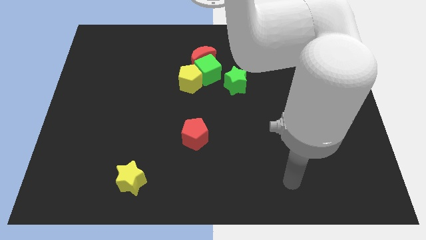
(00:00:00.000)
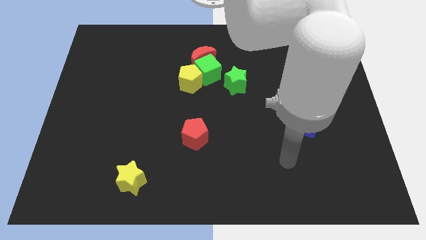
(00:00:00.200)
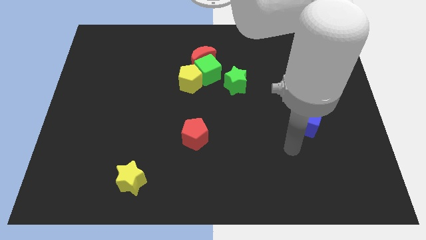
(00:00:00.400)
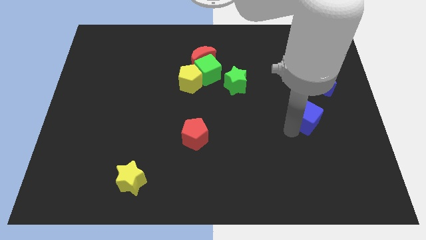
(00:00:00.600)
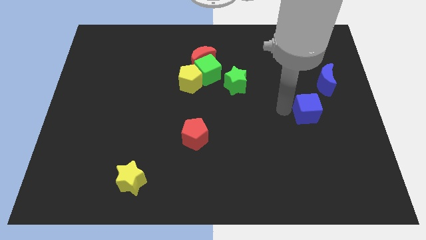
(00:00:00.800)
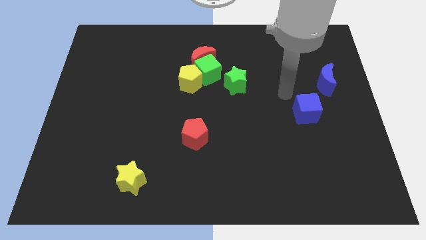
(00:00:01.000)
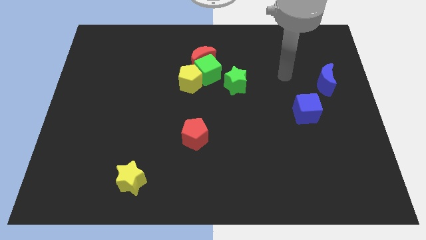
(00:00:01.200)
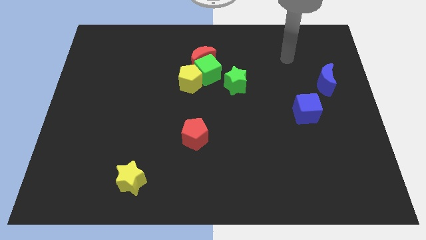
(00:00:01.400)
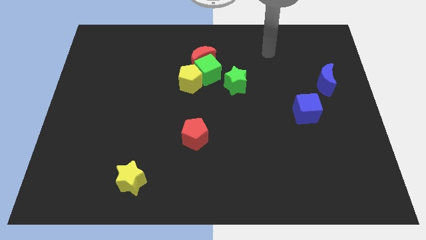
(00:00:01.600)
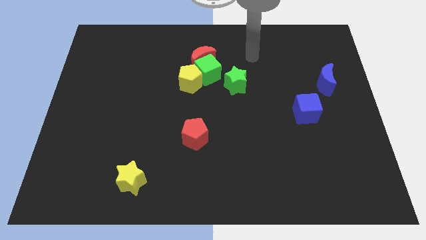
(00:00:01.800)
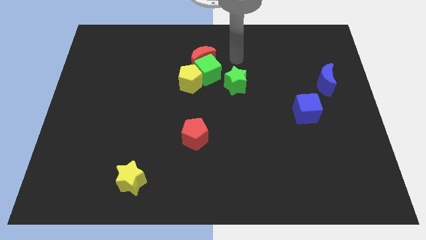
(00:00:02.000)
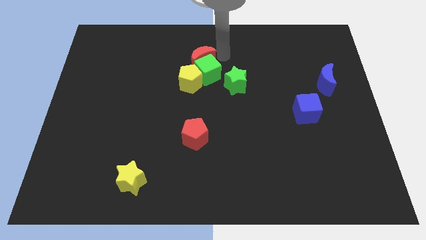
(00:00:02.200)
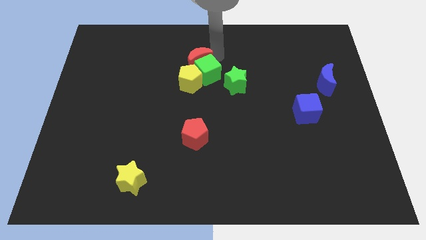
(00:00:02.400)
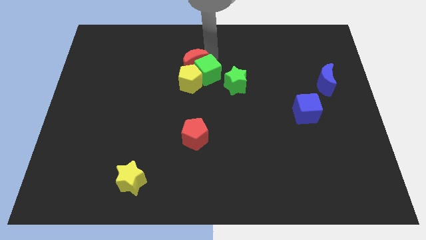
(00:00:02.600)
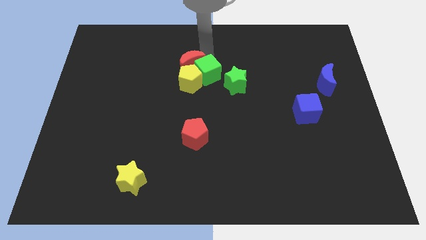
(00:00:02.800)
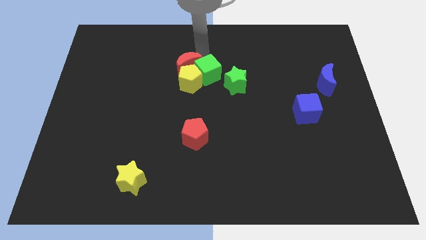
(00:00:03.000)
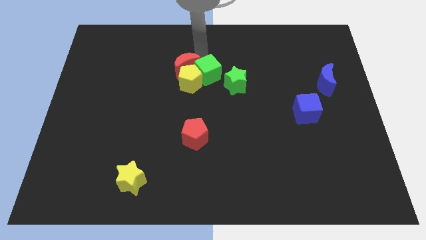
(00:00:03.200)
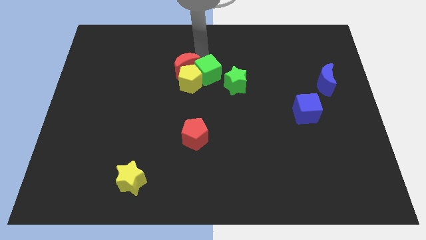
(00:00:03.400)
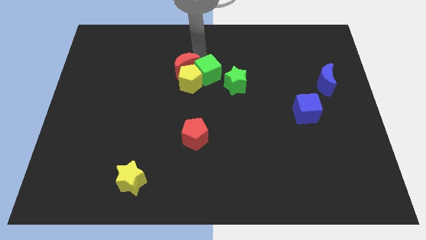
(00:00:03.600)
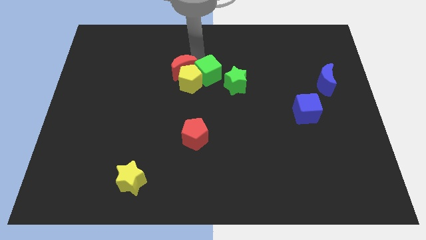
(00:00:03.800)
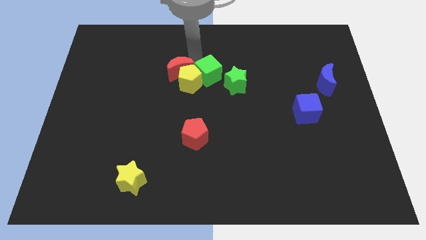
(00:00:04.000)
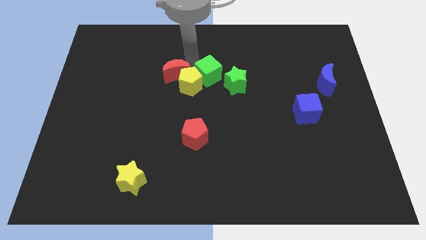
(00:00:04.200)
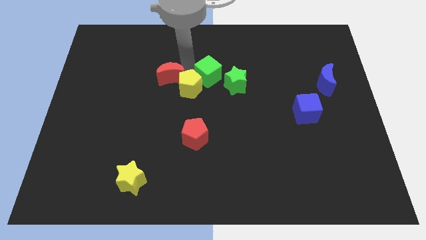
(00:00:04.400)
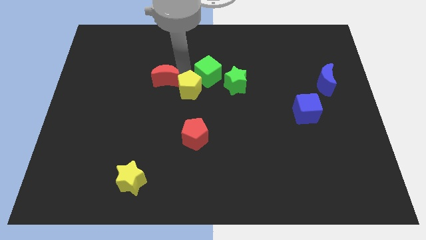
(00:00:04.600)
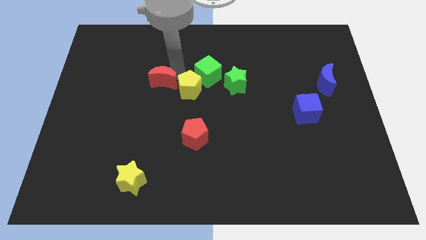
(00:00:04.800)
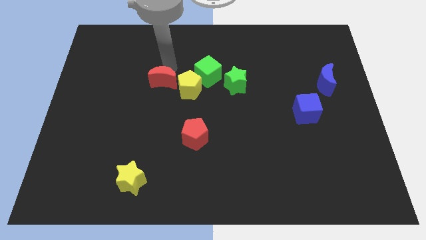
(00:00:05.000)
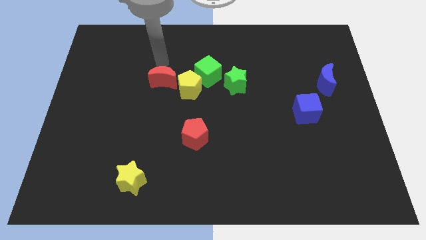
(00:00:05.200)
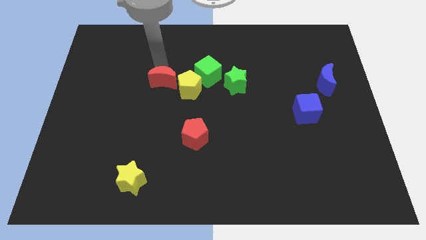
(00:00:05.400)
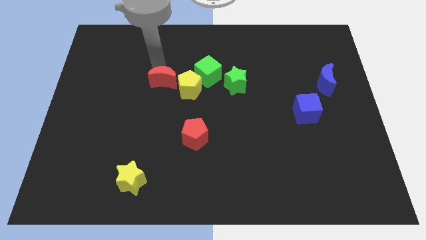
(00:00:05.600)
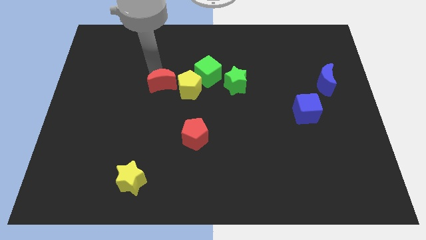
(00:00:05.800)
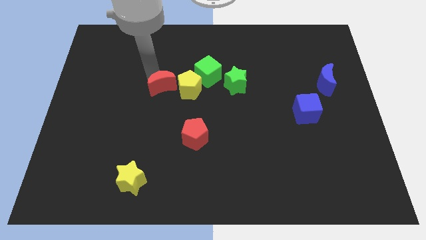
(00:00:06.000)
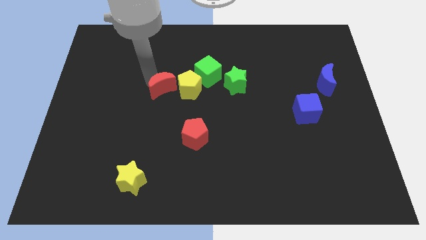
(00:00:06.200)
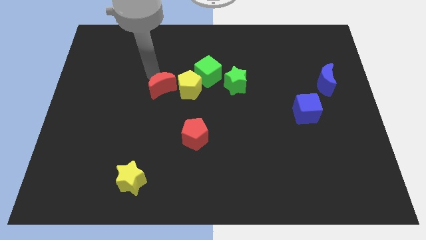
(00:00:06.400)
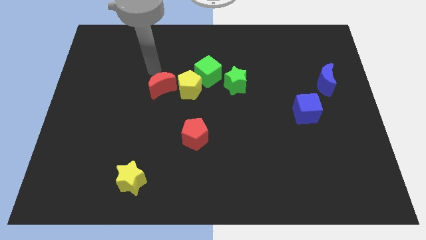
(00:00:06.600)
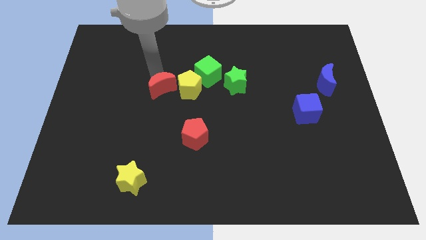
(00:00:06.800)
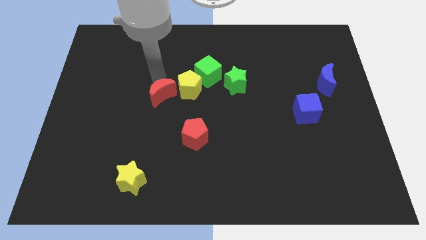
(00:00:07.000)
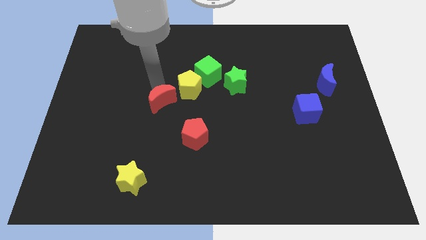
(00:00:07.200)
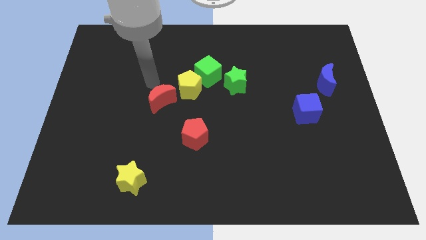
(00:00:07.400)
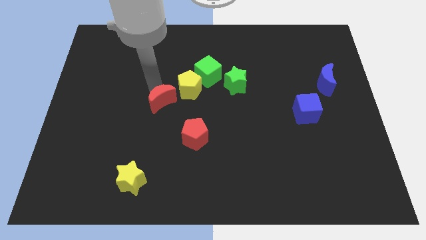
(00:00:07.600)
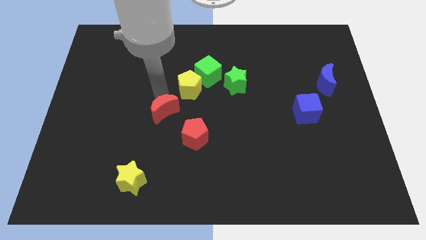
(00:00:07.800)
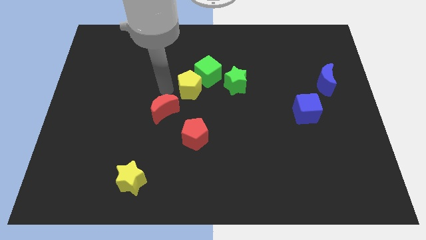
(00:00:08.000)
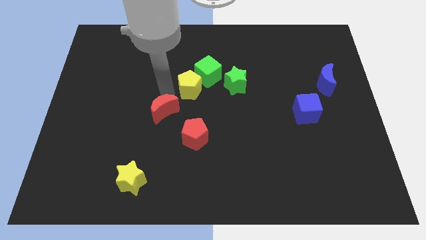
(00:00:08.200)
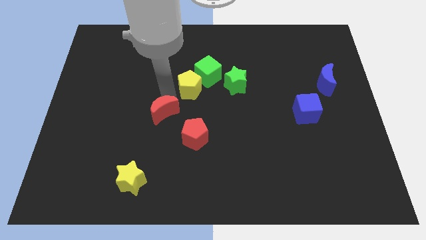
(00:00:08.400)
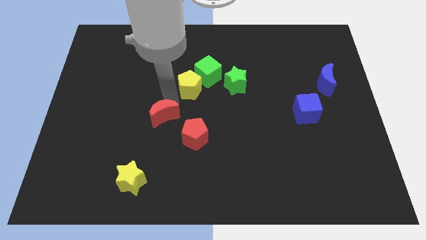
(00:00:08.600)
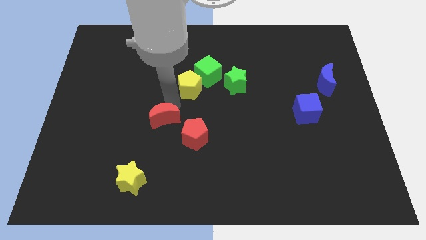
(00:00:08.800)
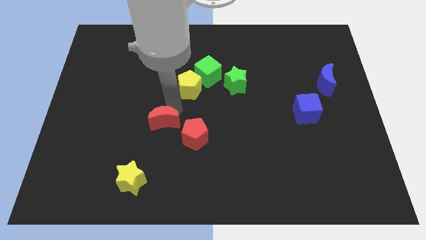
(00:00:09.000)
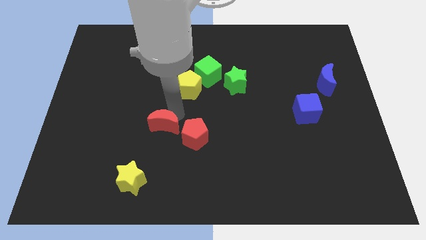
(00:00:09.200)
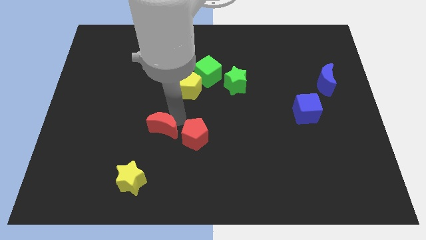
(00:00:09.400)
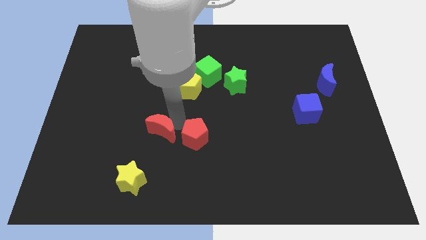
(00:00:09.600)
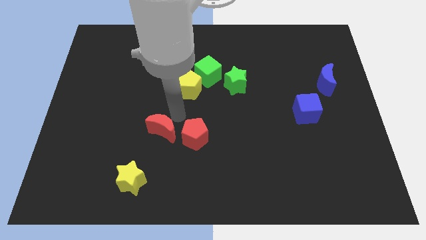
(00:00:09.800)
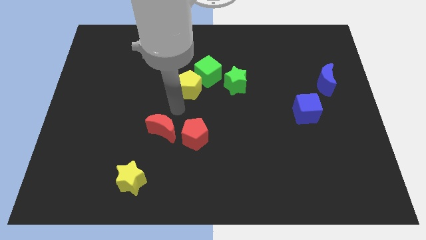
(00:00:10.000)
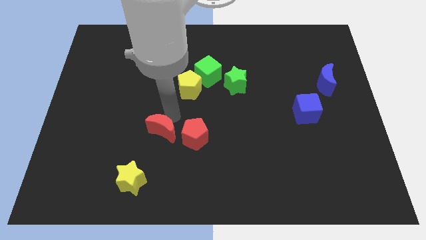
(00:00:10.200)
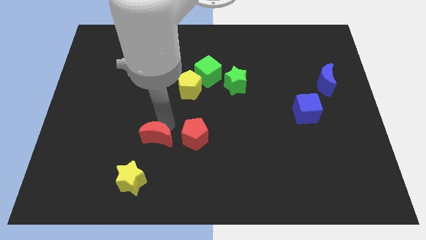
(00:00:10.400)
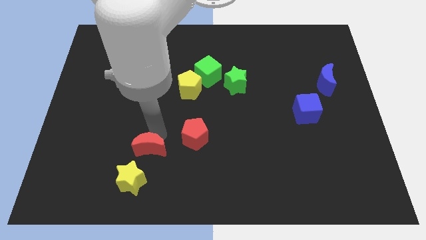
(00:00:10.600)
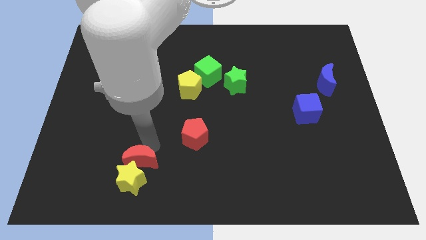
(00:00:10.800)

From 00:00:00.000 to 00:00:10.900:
push the red moon towards the yellow star

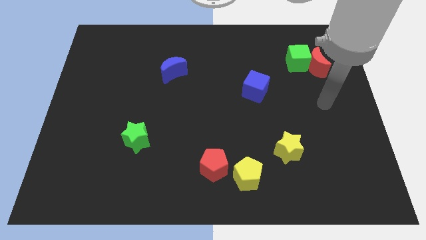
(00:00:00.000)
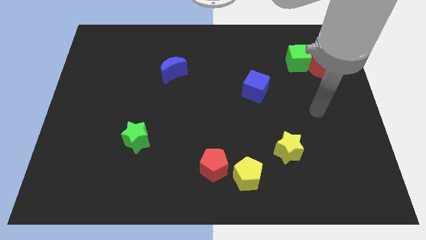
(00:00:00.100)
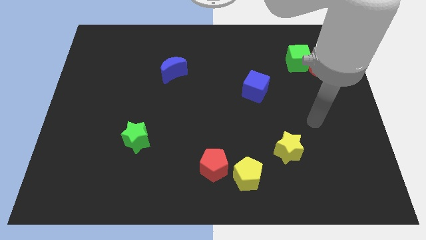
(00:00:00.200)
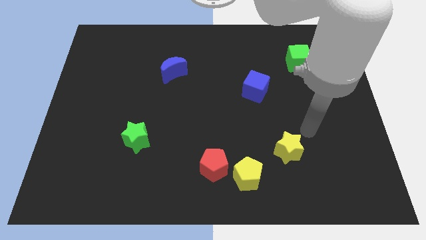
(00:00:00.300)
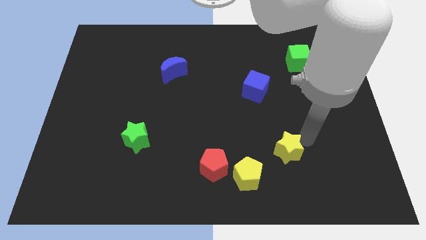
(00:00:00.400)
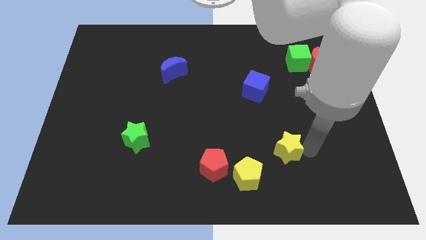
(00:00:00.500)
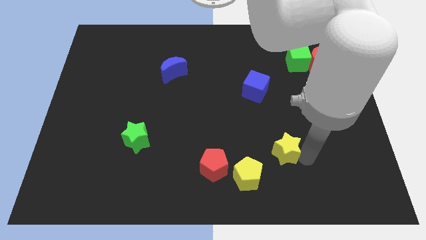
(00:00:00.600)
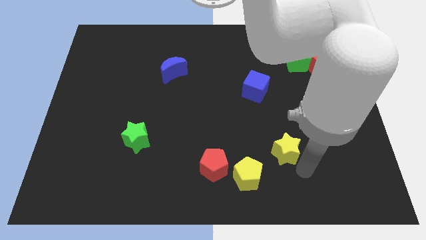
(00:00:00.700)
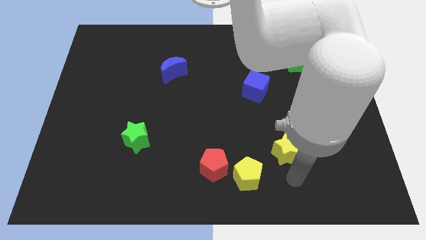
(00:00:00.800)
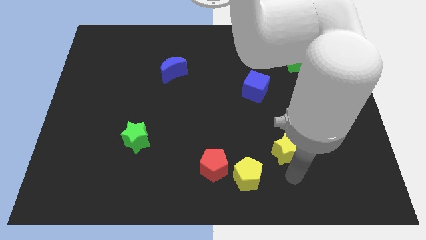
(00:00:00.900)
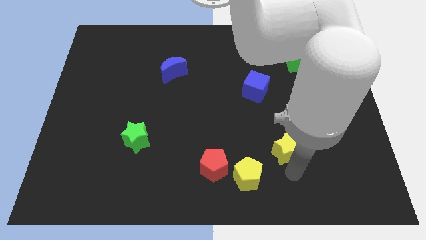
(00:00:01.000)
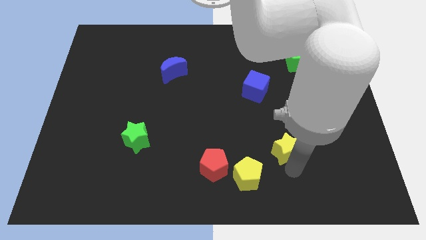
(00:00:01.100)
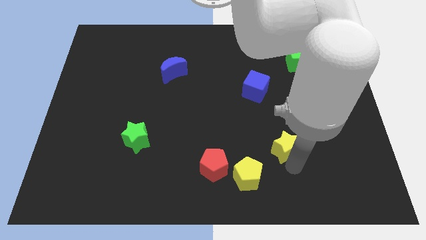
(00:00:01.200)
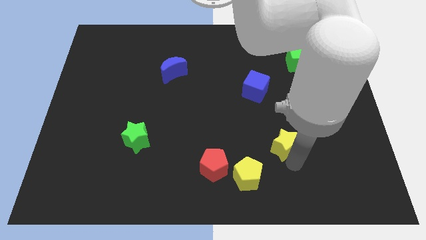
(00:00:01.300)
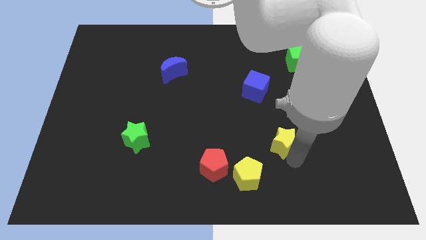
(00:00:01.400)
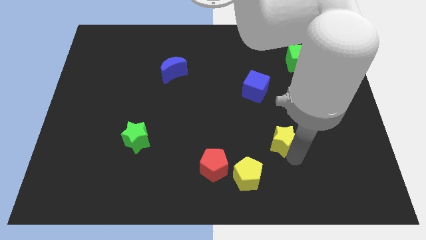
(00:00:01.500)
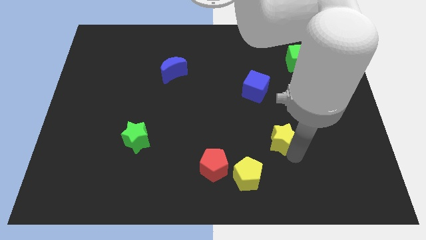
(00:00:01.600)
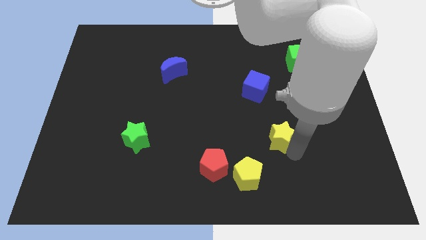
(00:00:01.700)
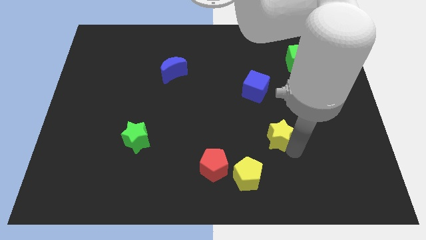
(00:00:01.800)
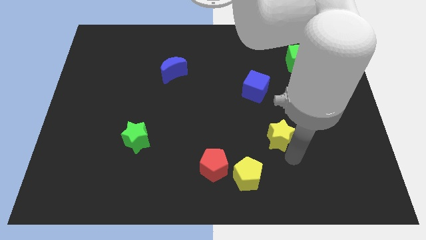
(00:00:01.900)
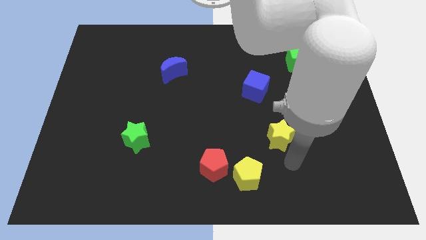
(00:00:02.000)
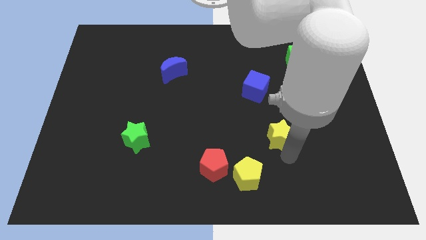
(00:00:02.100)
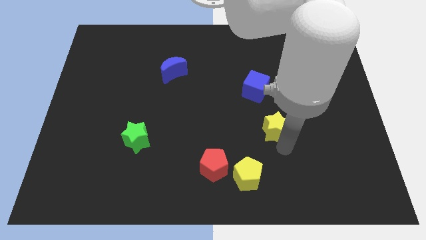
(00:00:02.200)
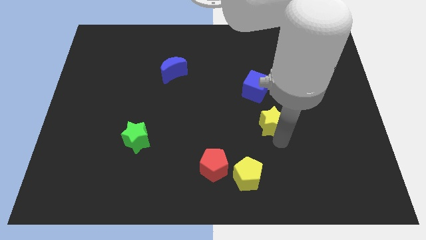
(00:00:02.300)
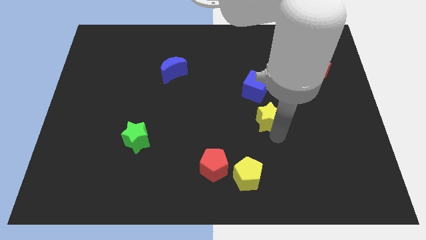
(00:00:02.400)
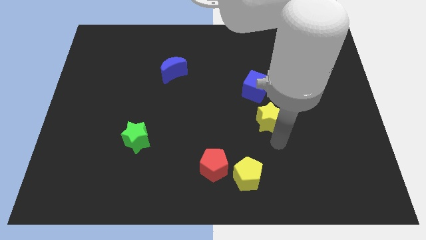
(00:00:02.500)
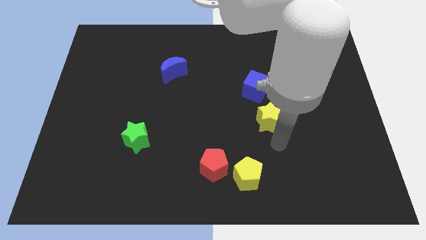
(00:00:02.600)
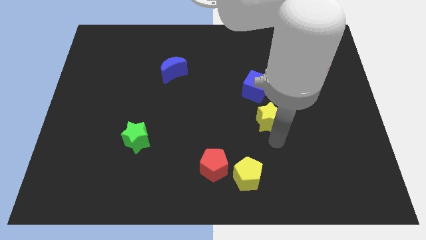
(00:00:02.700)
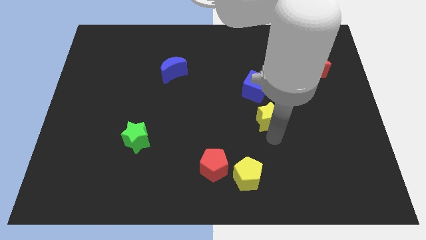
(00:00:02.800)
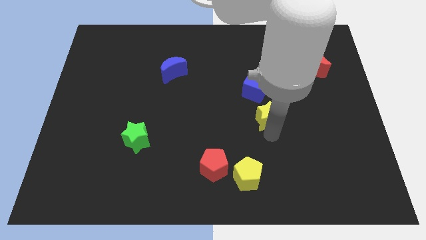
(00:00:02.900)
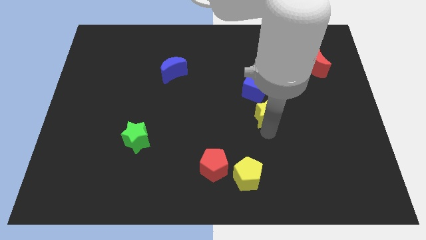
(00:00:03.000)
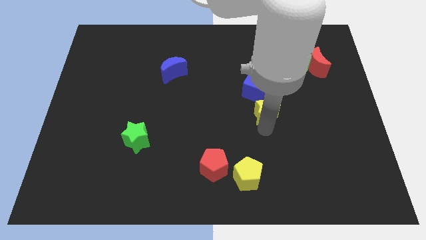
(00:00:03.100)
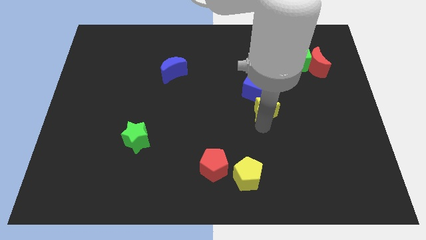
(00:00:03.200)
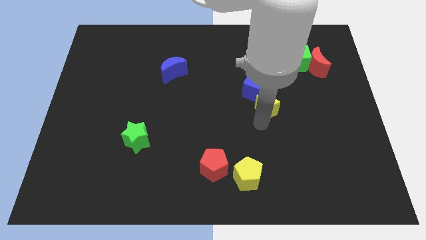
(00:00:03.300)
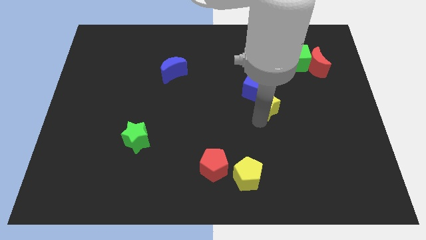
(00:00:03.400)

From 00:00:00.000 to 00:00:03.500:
move the yellow star close to the blue cube
